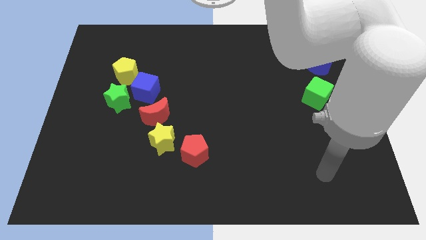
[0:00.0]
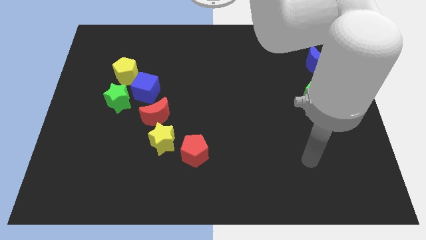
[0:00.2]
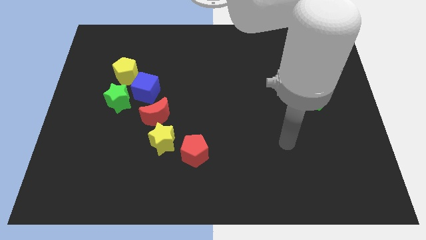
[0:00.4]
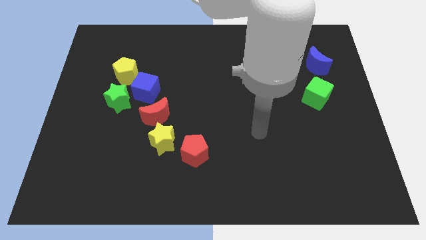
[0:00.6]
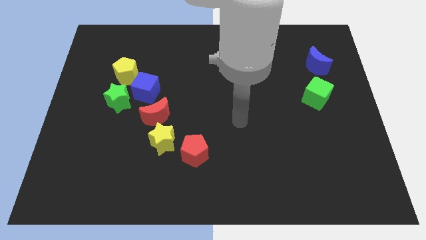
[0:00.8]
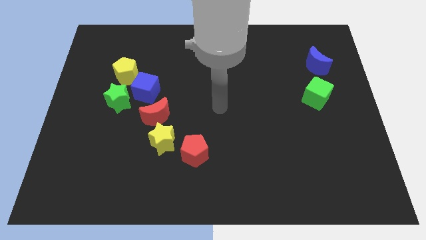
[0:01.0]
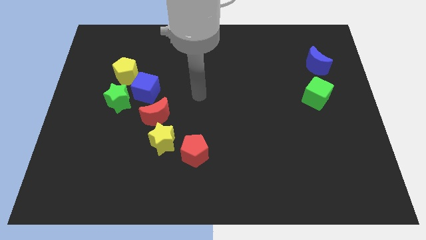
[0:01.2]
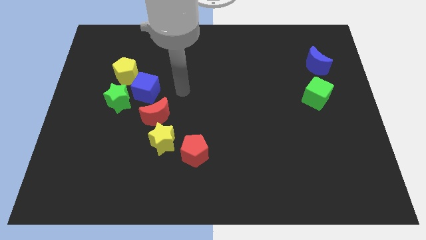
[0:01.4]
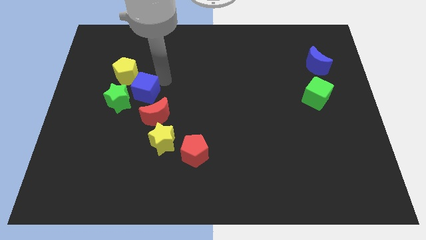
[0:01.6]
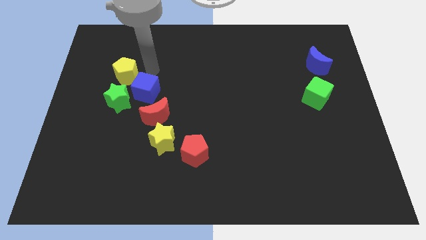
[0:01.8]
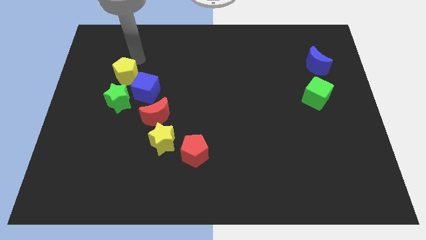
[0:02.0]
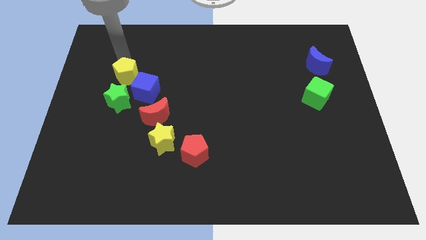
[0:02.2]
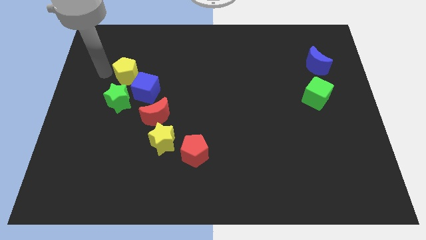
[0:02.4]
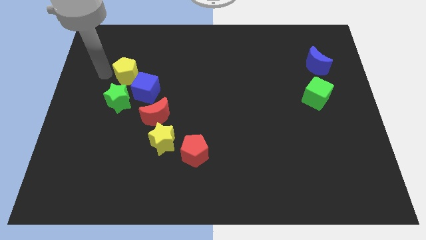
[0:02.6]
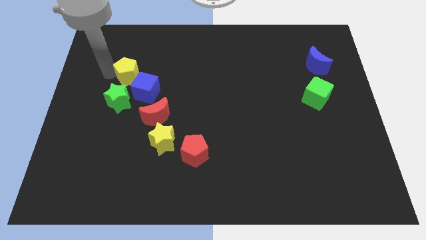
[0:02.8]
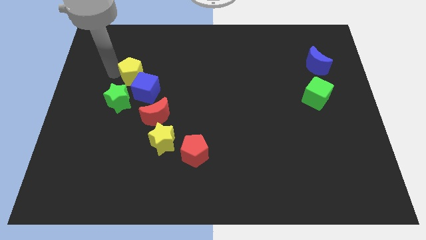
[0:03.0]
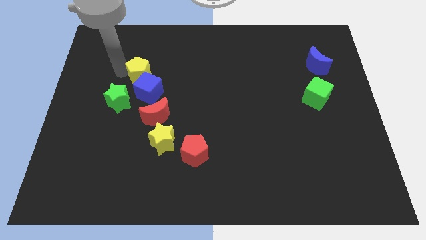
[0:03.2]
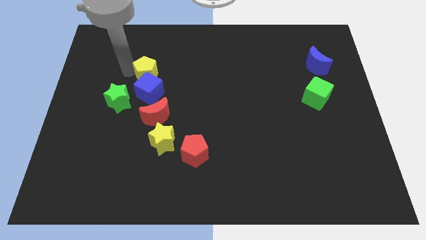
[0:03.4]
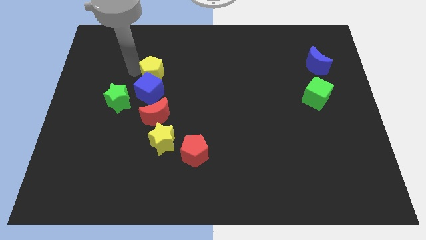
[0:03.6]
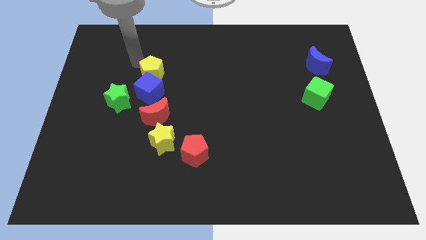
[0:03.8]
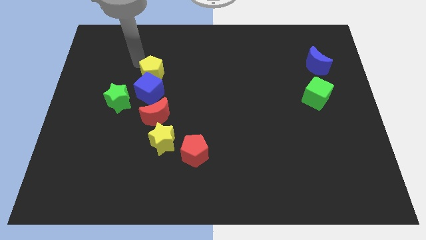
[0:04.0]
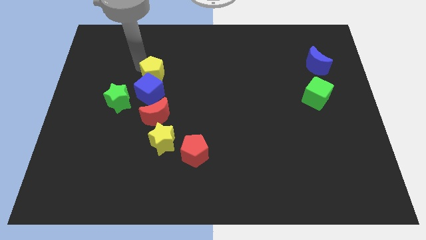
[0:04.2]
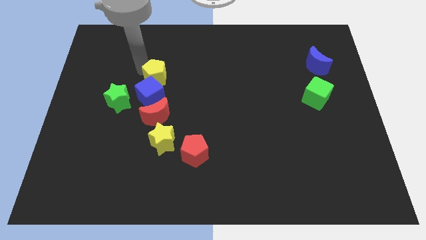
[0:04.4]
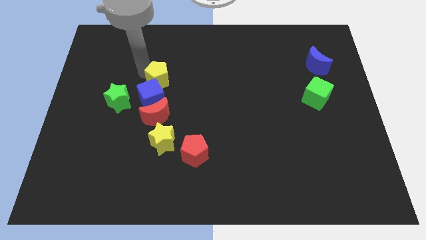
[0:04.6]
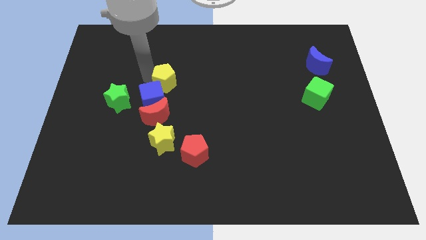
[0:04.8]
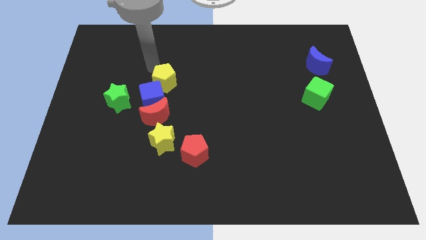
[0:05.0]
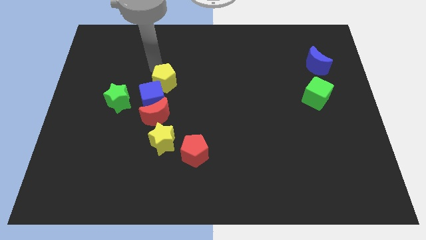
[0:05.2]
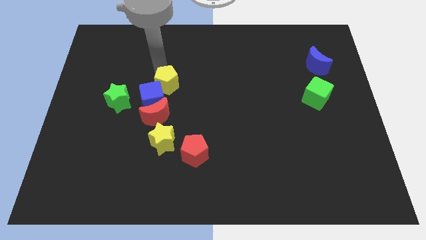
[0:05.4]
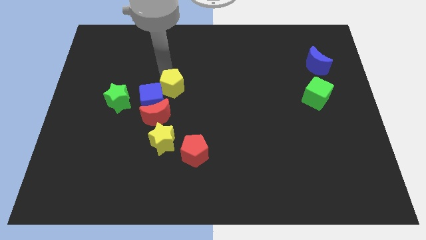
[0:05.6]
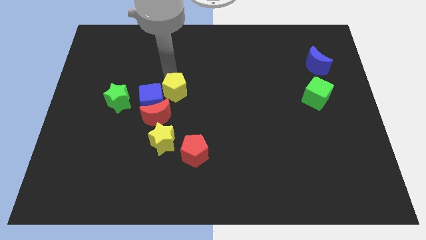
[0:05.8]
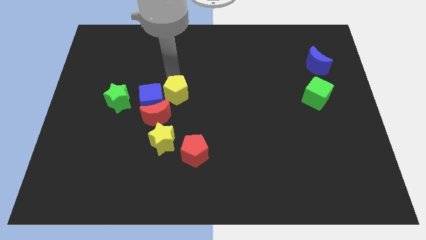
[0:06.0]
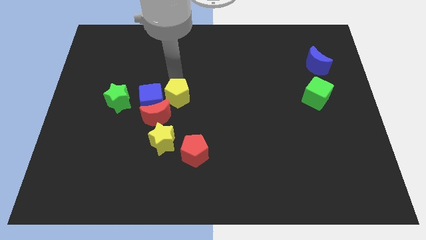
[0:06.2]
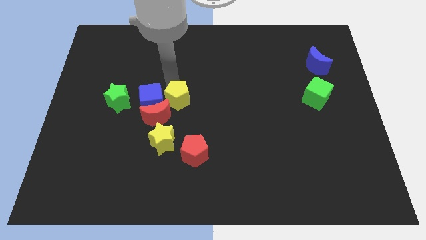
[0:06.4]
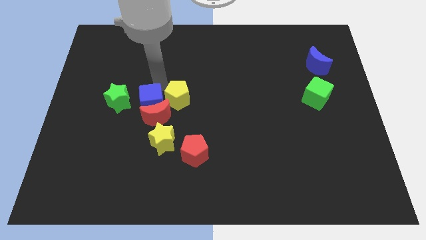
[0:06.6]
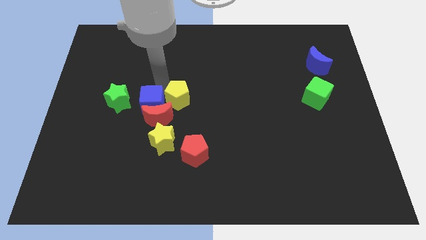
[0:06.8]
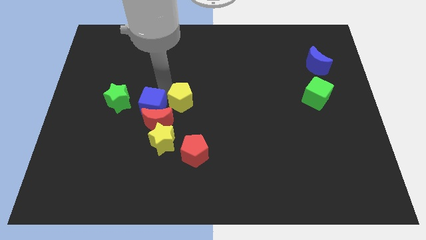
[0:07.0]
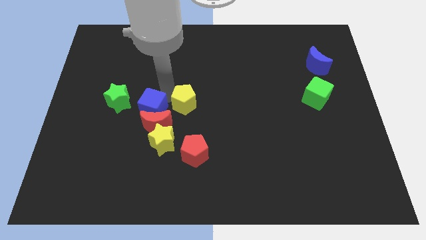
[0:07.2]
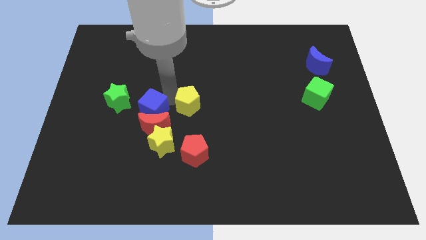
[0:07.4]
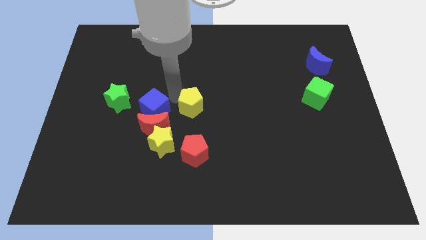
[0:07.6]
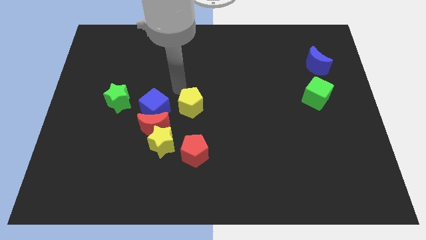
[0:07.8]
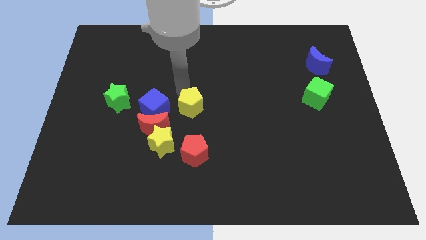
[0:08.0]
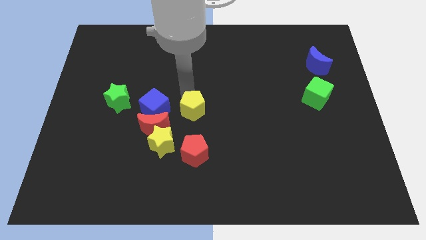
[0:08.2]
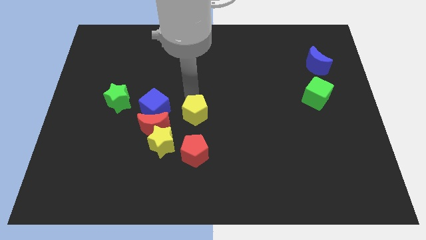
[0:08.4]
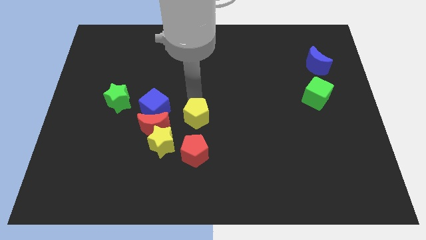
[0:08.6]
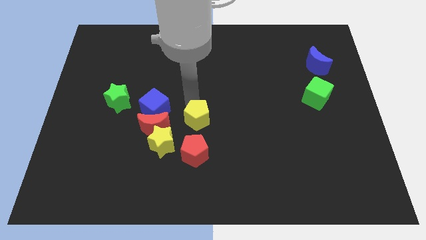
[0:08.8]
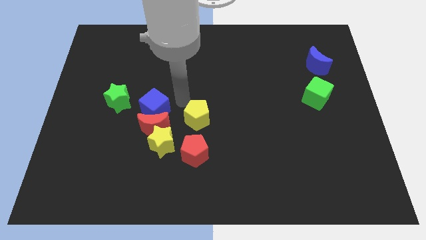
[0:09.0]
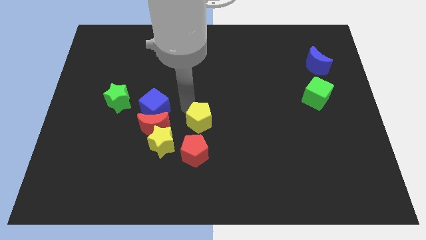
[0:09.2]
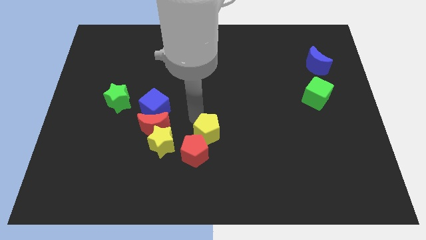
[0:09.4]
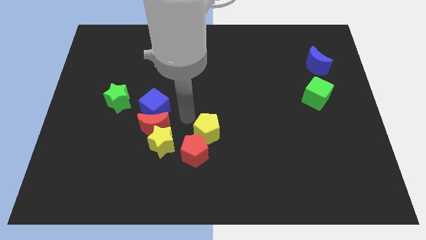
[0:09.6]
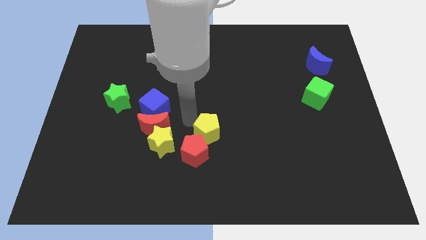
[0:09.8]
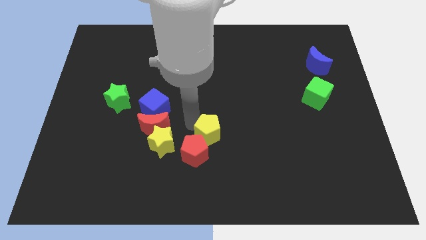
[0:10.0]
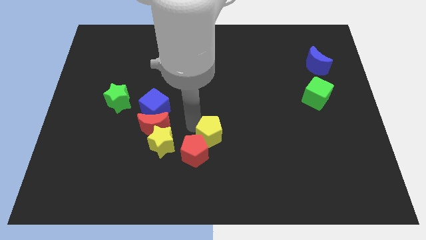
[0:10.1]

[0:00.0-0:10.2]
put the yellow pentagon to the right side of the red pentagon
